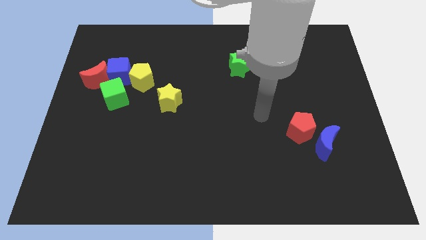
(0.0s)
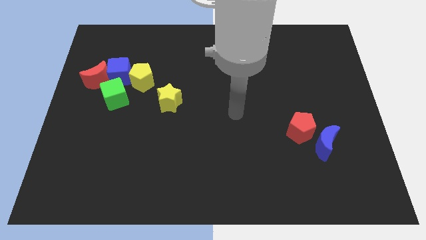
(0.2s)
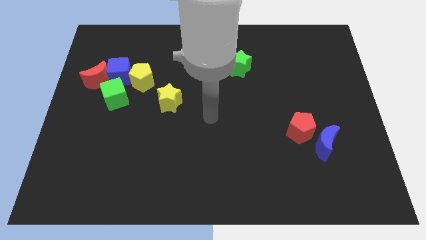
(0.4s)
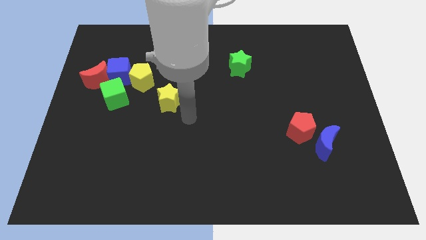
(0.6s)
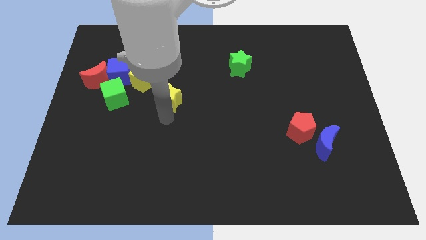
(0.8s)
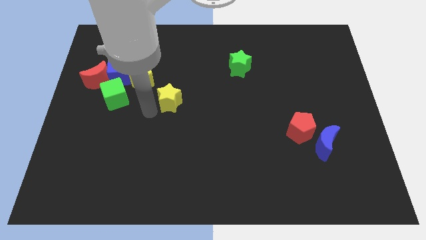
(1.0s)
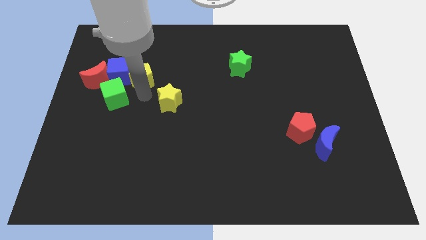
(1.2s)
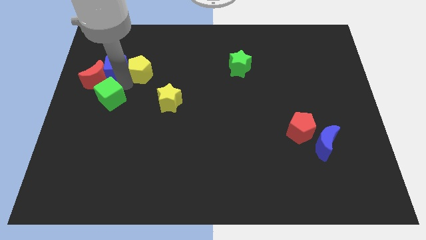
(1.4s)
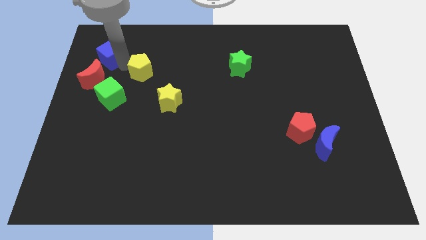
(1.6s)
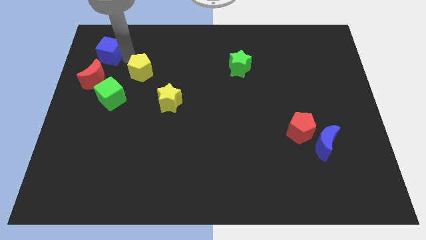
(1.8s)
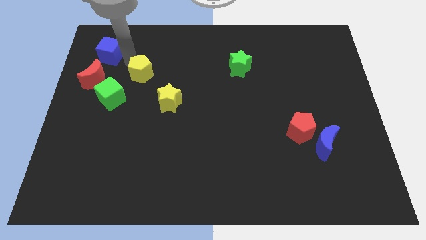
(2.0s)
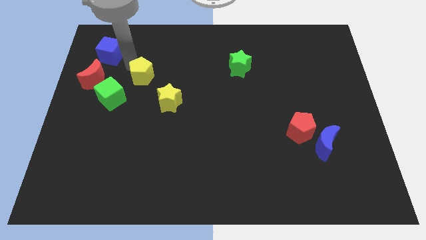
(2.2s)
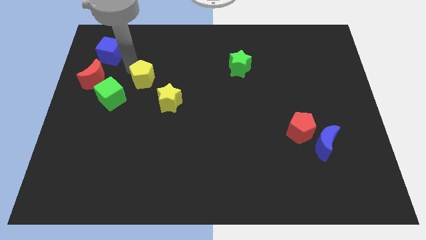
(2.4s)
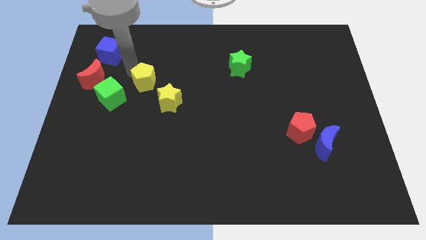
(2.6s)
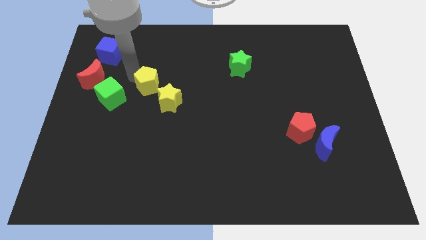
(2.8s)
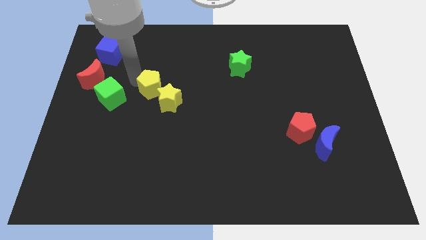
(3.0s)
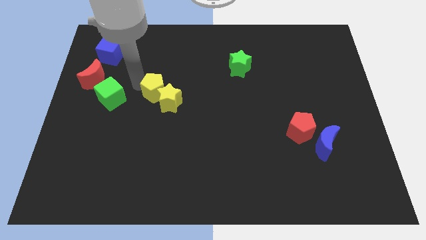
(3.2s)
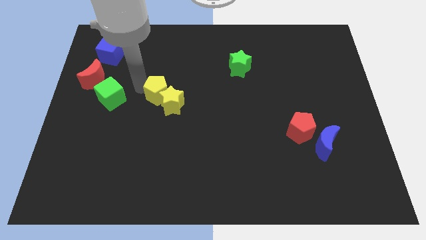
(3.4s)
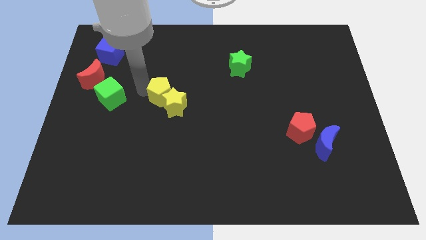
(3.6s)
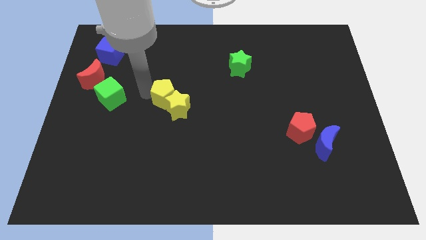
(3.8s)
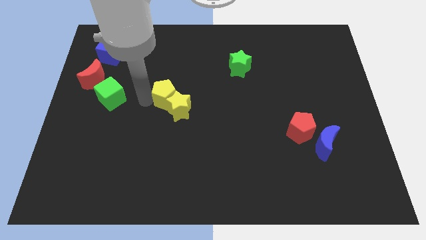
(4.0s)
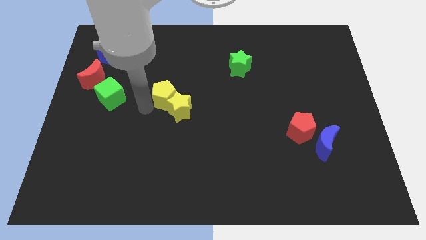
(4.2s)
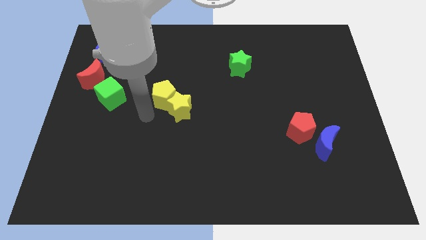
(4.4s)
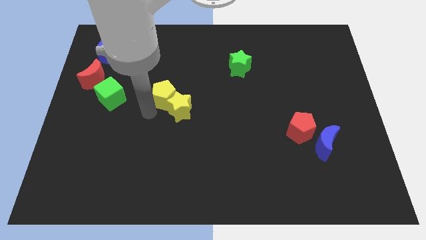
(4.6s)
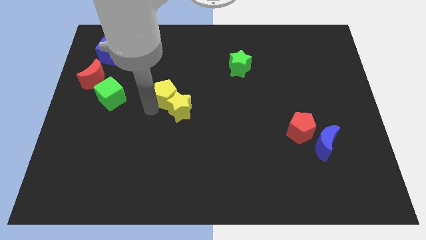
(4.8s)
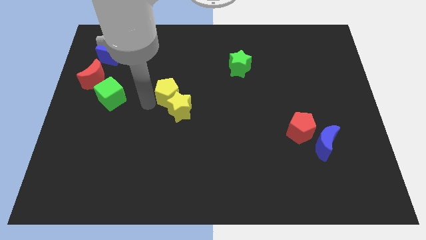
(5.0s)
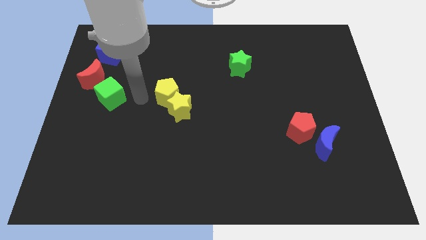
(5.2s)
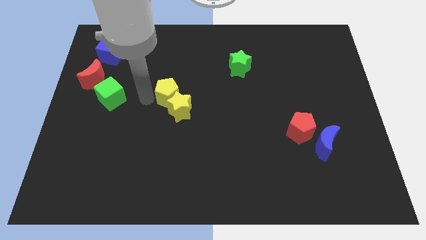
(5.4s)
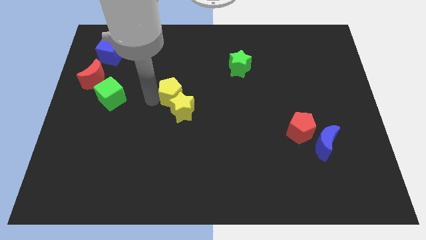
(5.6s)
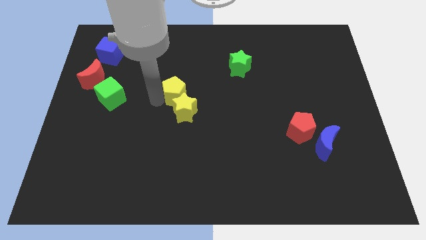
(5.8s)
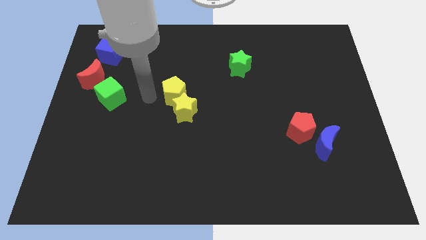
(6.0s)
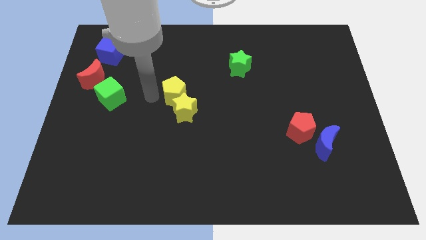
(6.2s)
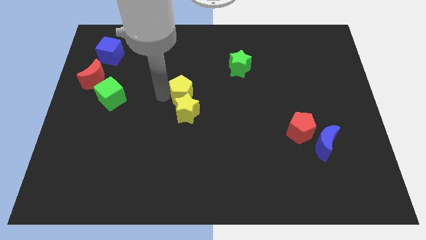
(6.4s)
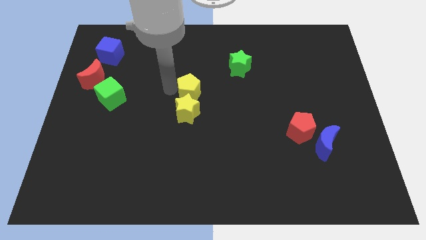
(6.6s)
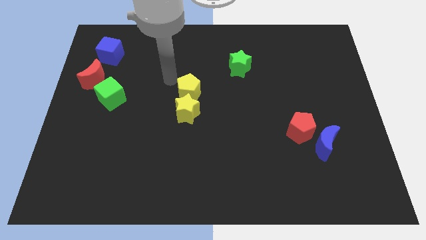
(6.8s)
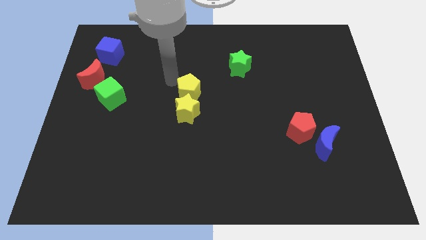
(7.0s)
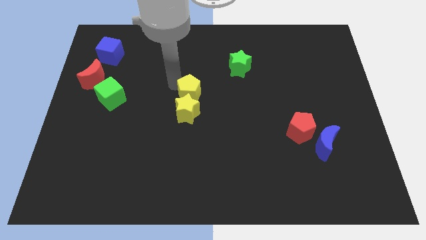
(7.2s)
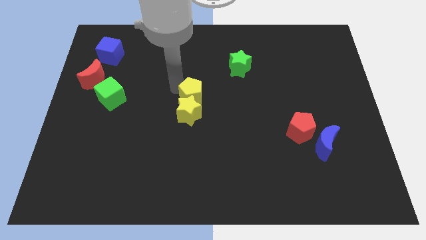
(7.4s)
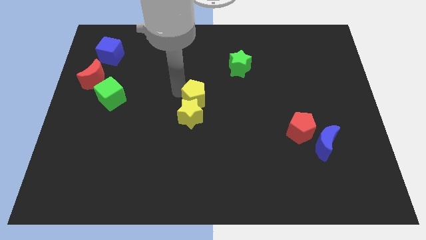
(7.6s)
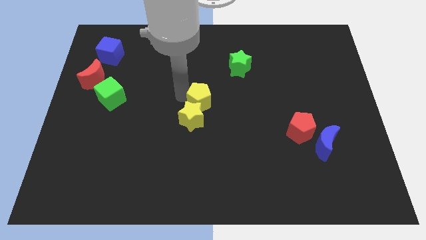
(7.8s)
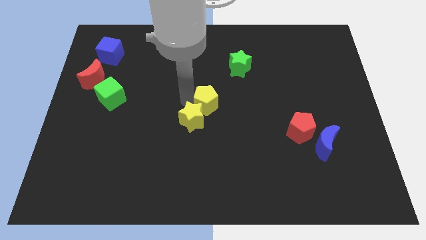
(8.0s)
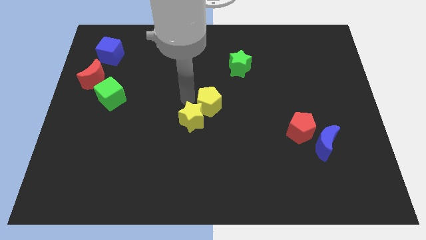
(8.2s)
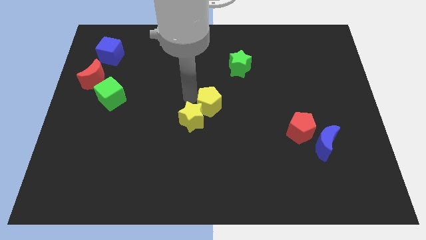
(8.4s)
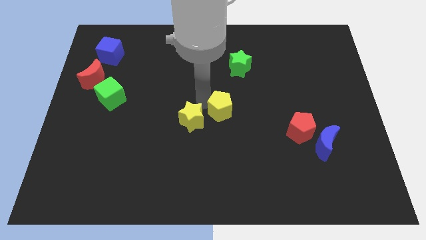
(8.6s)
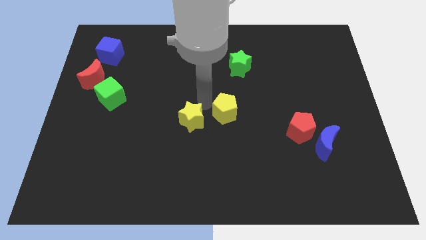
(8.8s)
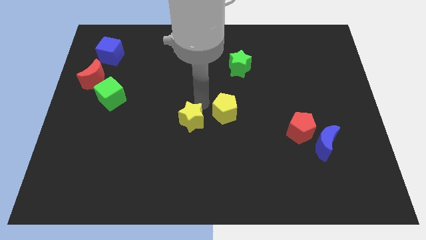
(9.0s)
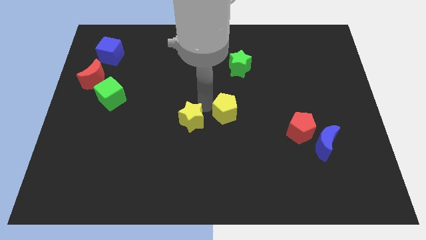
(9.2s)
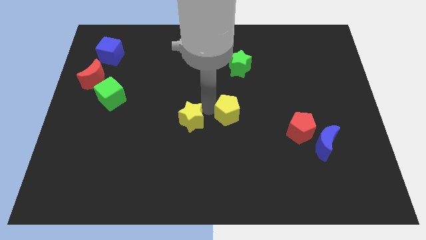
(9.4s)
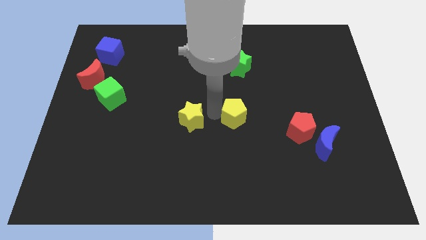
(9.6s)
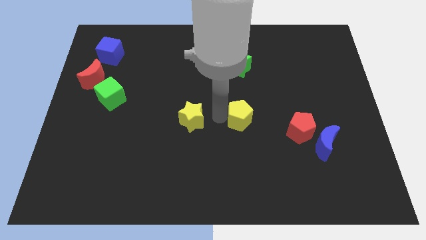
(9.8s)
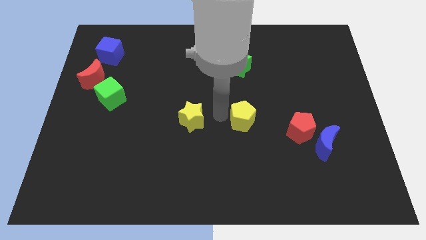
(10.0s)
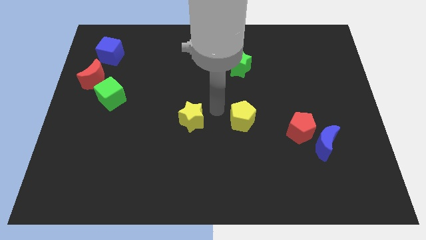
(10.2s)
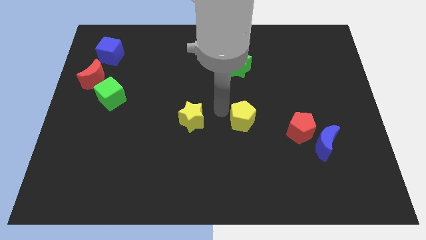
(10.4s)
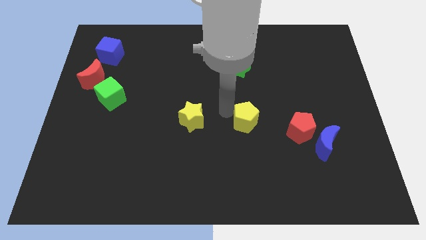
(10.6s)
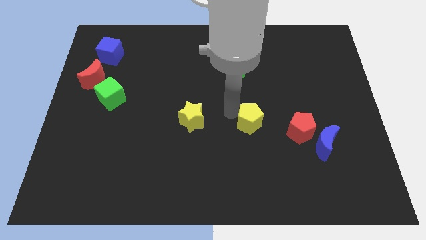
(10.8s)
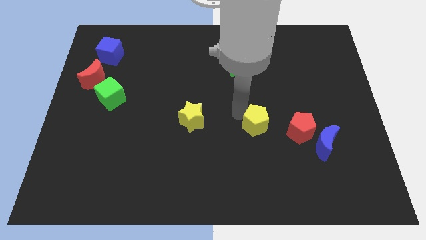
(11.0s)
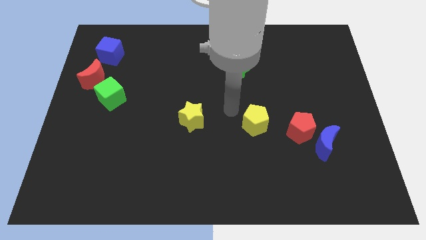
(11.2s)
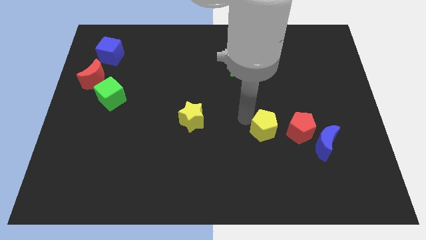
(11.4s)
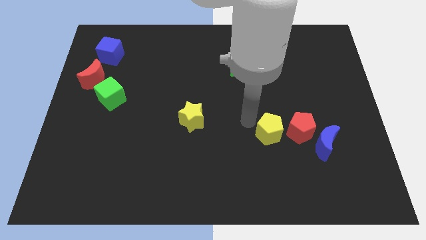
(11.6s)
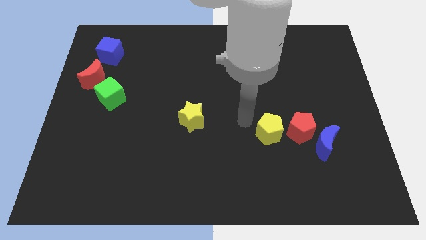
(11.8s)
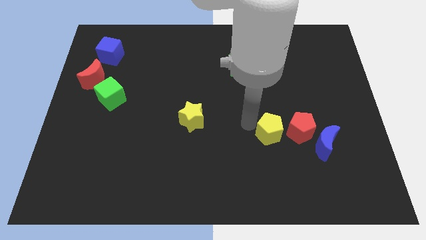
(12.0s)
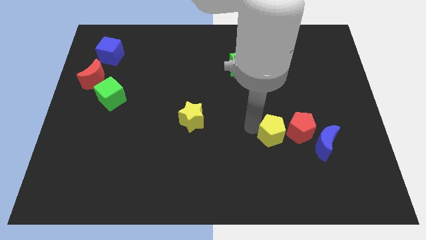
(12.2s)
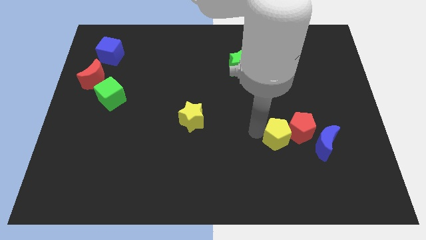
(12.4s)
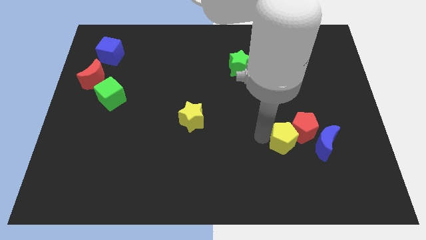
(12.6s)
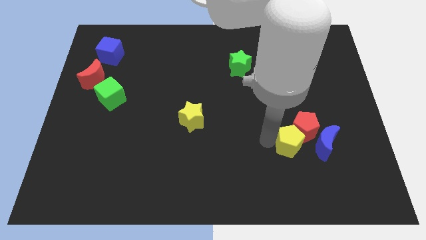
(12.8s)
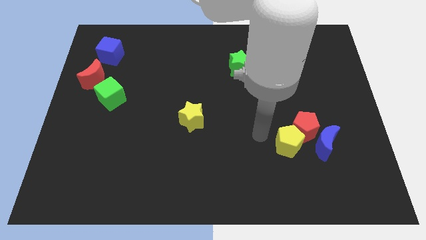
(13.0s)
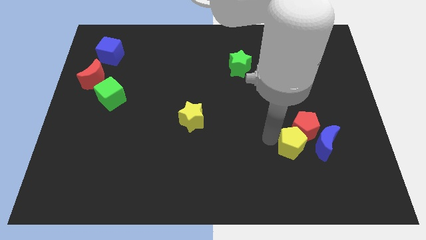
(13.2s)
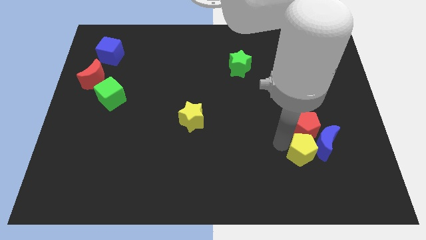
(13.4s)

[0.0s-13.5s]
move the yellow pentagon next to the blue moon

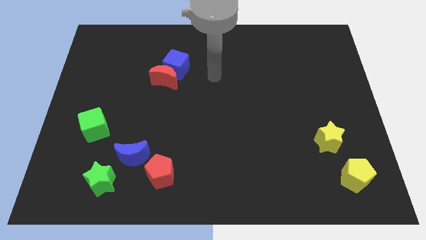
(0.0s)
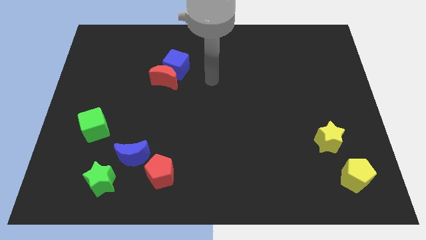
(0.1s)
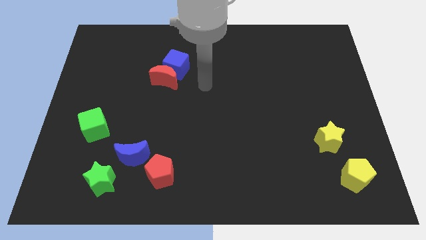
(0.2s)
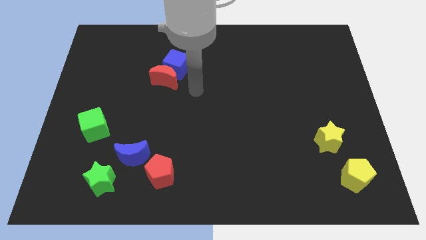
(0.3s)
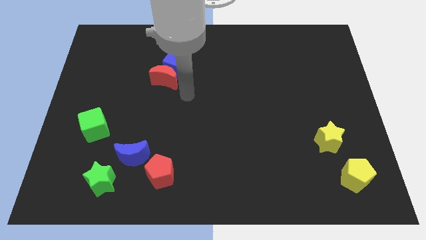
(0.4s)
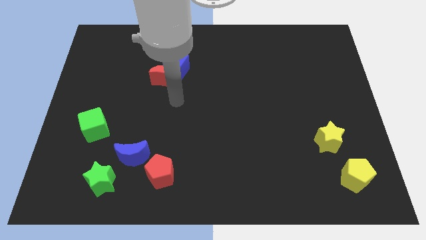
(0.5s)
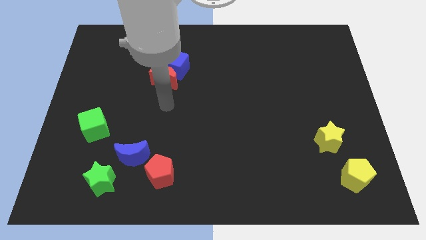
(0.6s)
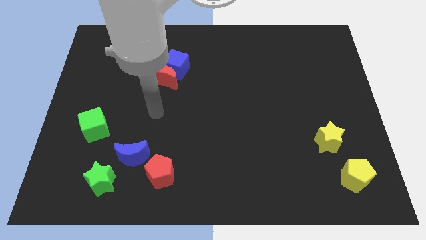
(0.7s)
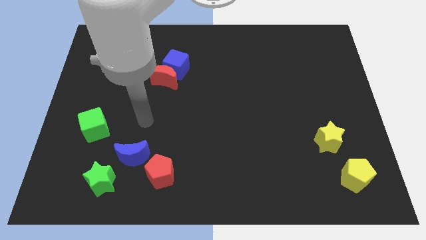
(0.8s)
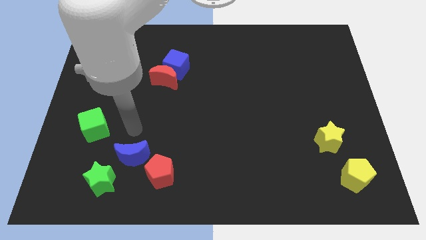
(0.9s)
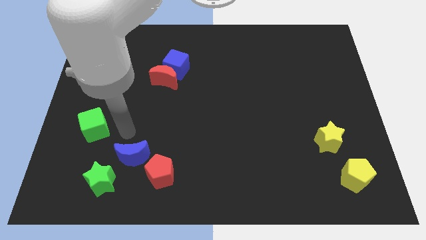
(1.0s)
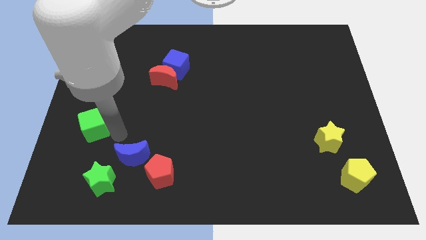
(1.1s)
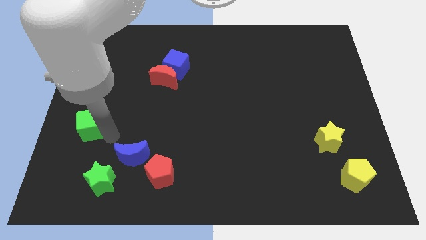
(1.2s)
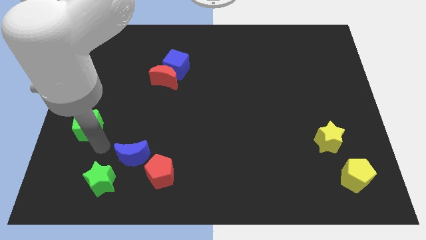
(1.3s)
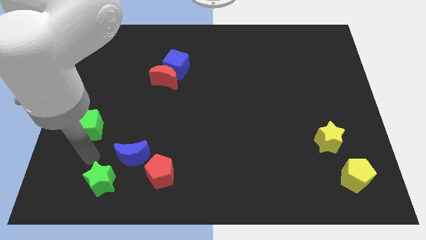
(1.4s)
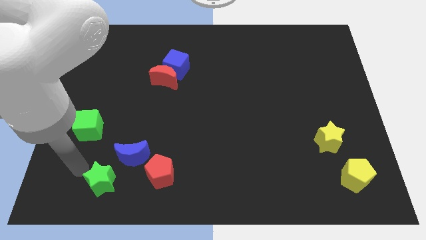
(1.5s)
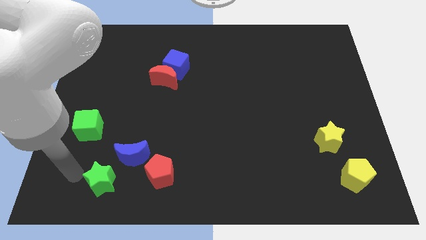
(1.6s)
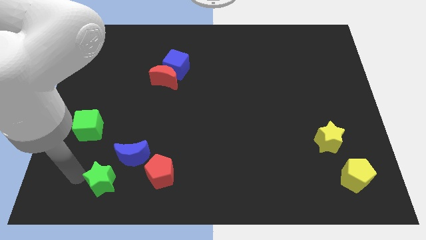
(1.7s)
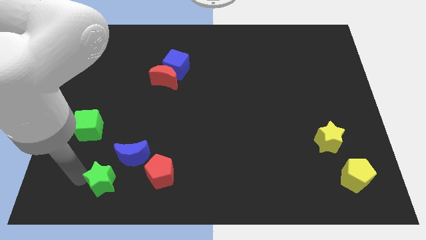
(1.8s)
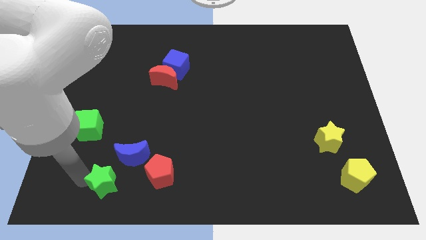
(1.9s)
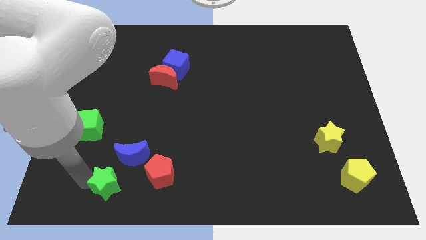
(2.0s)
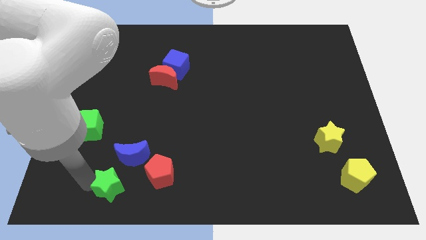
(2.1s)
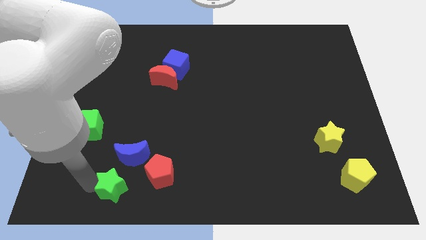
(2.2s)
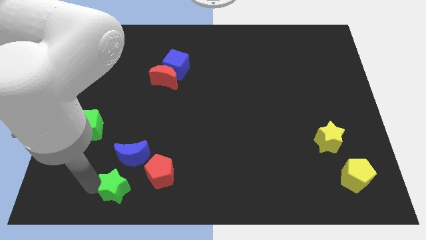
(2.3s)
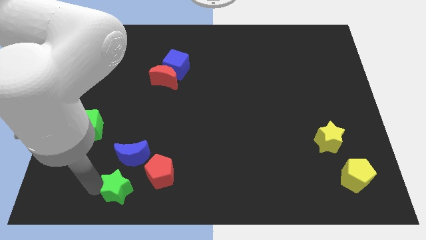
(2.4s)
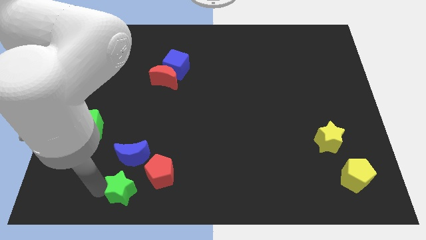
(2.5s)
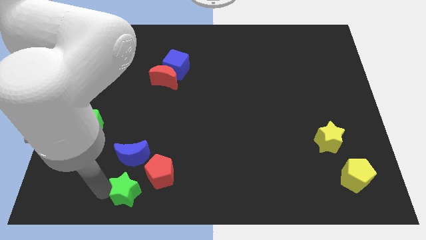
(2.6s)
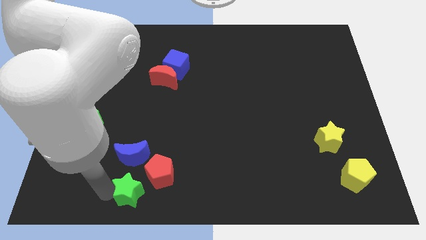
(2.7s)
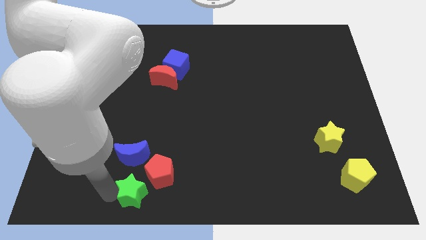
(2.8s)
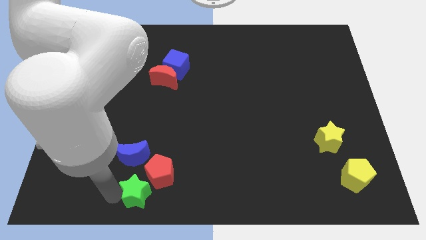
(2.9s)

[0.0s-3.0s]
move the green star to the red pentagon
